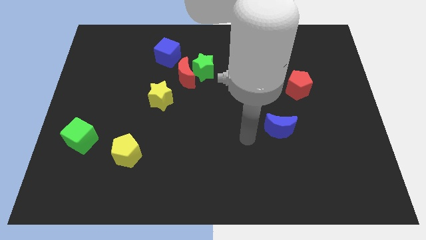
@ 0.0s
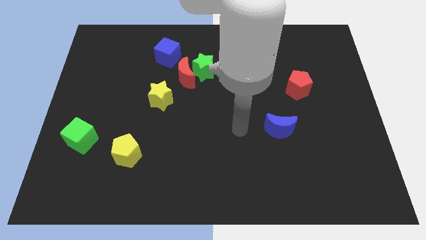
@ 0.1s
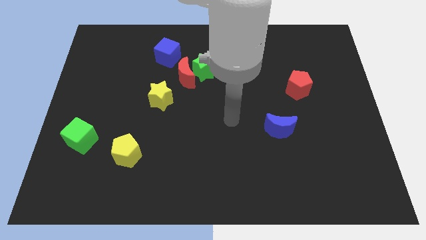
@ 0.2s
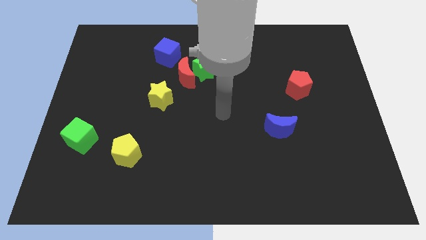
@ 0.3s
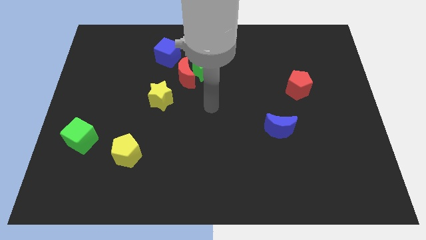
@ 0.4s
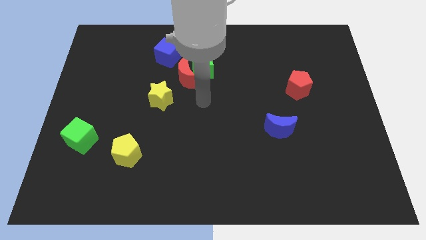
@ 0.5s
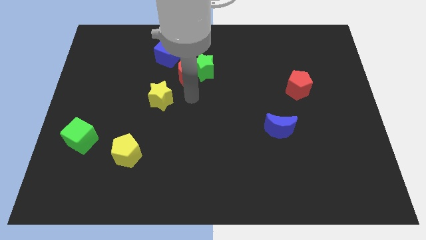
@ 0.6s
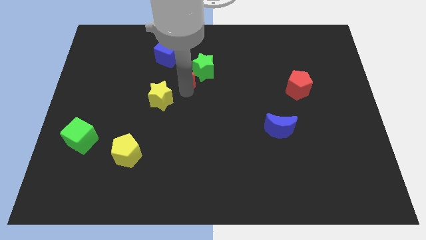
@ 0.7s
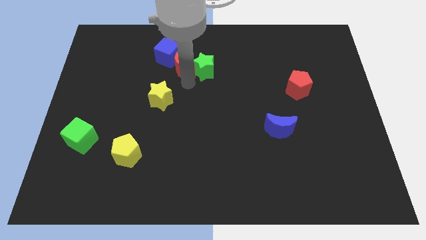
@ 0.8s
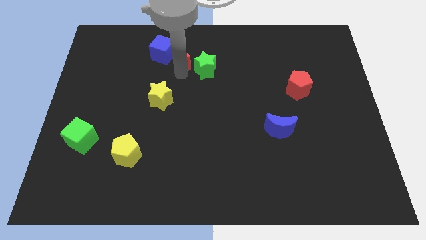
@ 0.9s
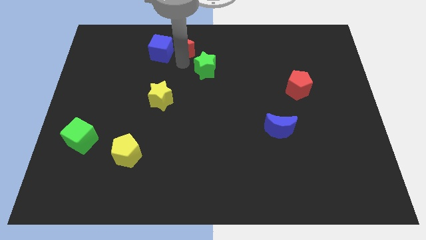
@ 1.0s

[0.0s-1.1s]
pull the green star apart from the red moon

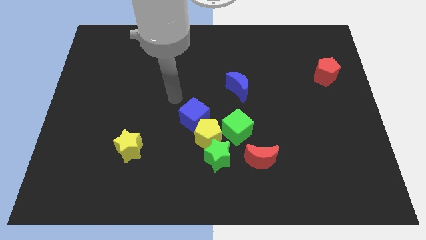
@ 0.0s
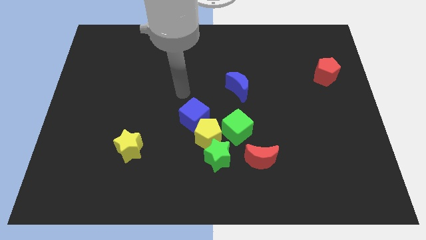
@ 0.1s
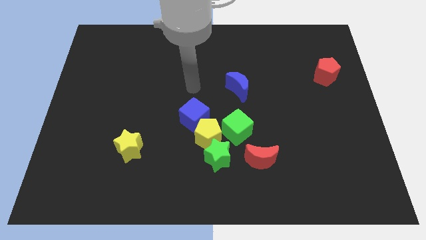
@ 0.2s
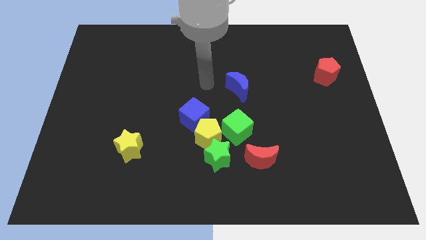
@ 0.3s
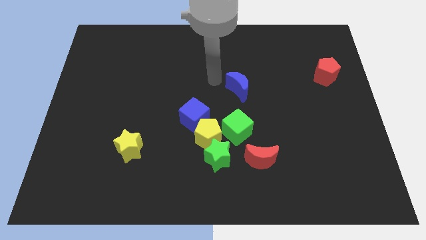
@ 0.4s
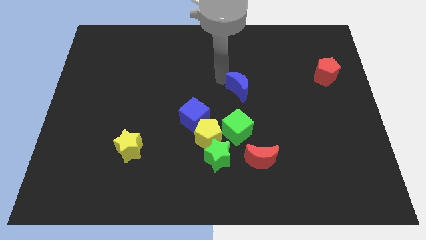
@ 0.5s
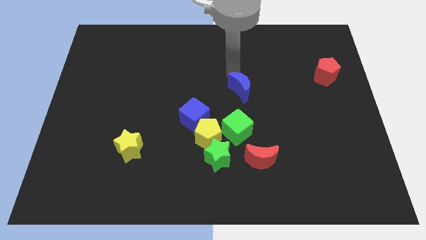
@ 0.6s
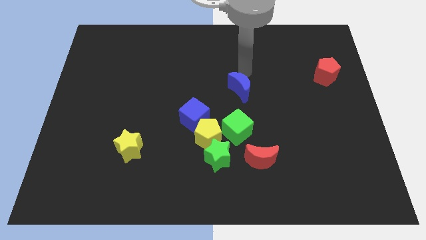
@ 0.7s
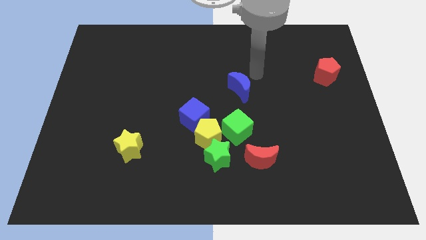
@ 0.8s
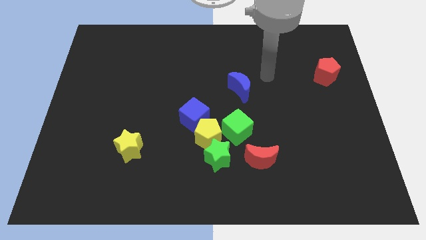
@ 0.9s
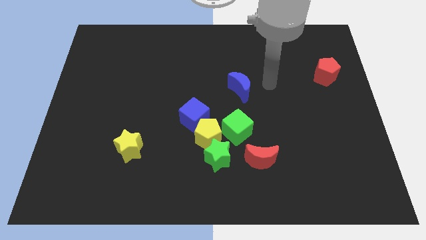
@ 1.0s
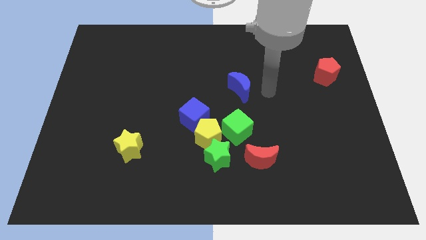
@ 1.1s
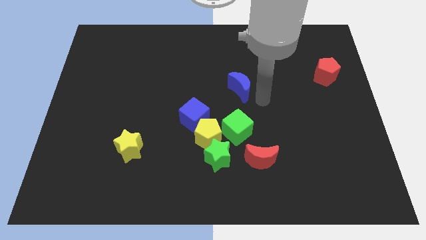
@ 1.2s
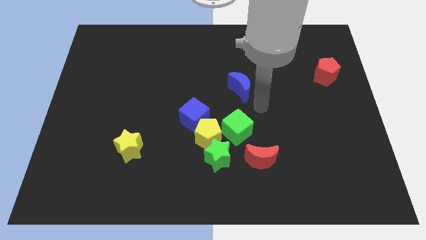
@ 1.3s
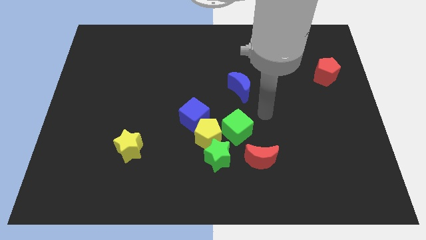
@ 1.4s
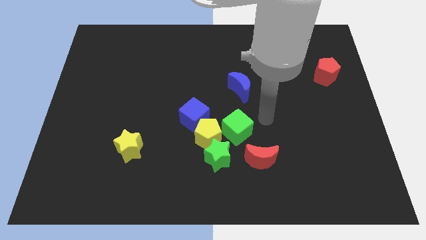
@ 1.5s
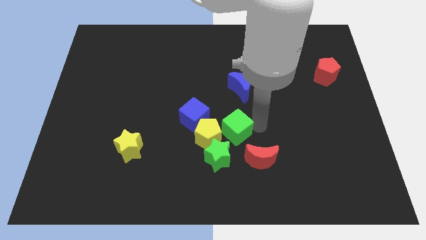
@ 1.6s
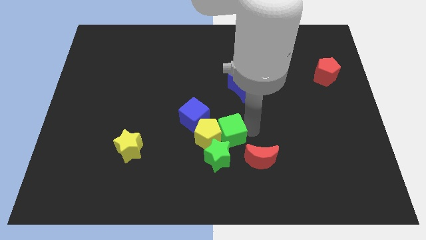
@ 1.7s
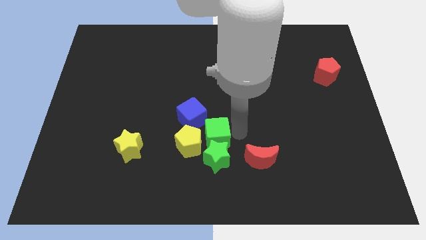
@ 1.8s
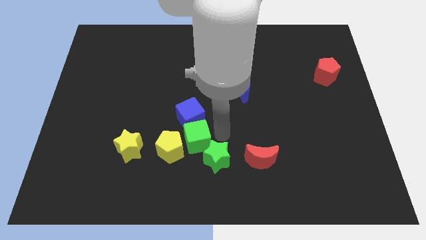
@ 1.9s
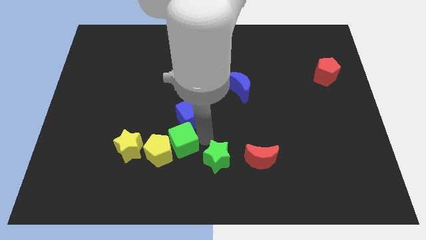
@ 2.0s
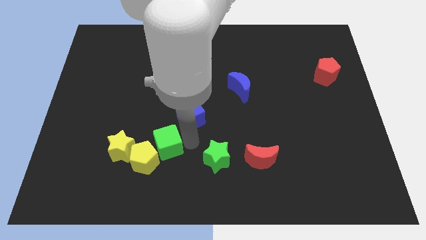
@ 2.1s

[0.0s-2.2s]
separate the yellow pentagon from the clump

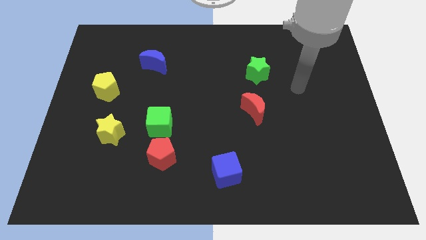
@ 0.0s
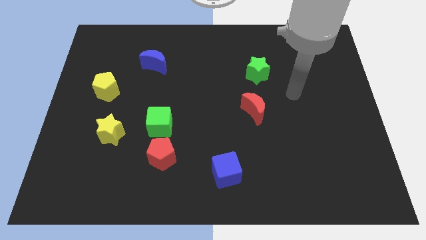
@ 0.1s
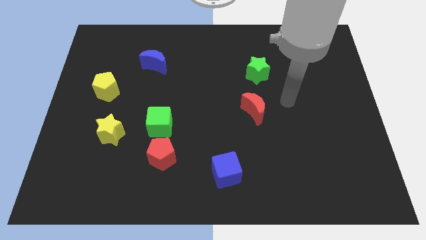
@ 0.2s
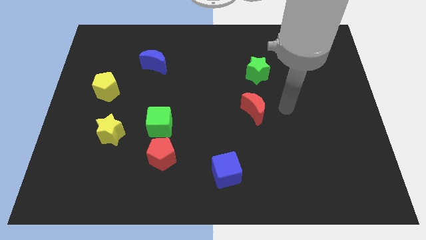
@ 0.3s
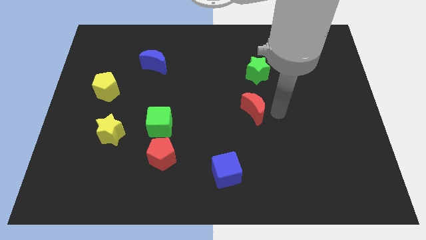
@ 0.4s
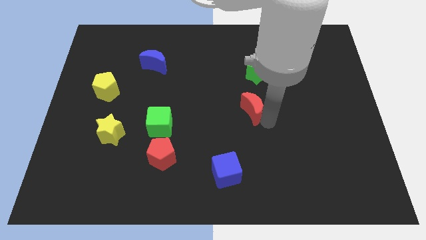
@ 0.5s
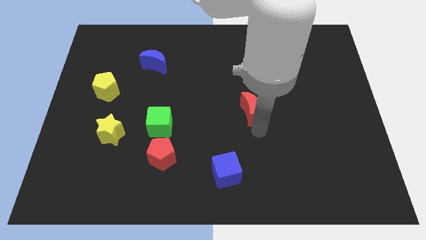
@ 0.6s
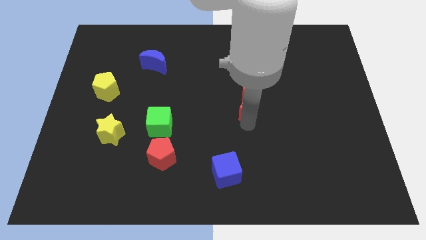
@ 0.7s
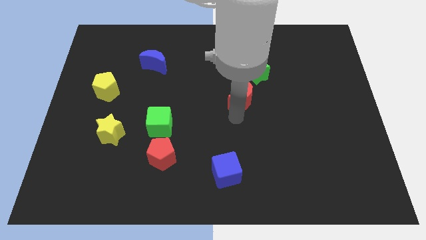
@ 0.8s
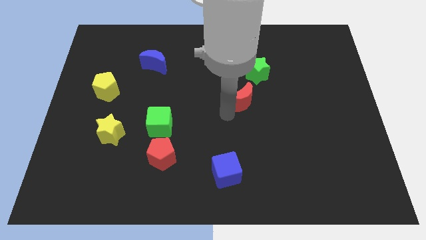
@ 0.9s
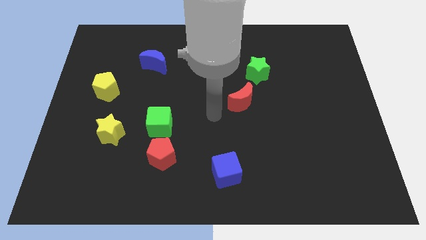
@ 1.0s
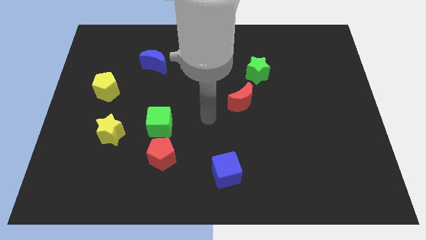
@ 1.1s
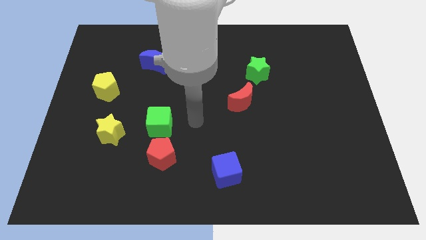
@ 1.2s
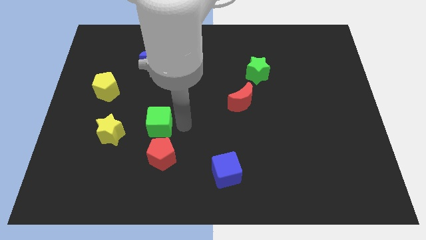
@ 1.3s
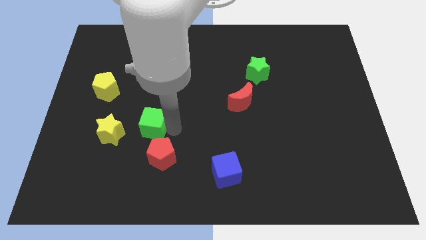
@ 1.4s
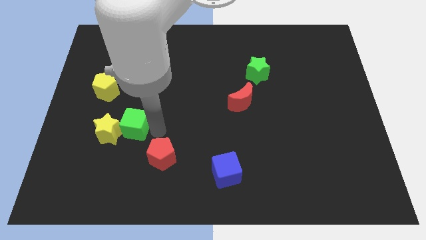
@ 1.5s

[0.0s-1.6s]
separate the red pentagon from the green cube

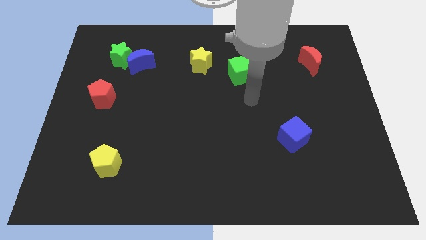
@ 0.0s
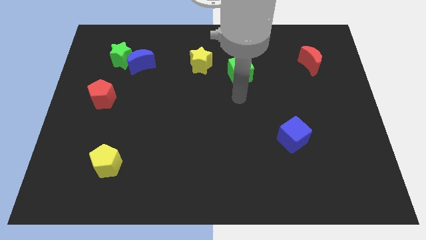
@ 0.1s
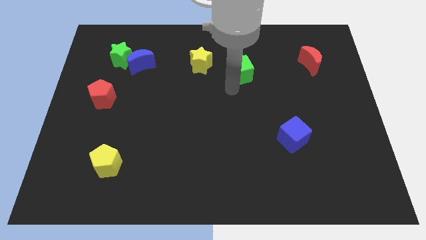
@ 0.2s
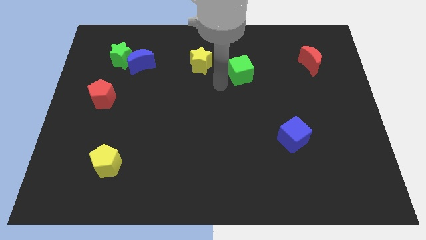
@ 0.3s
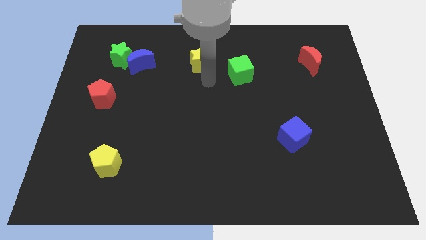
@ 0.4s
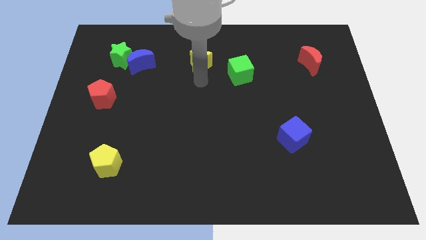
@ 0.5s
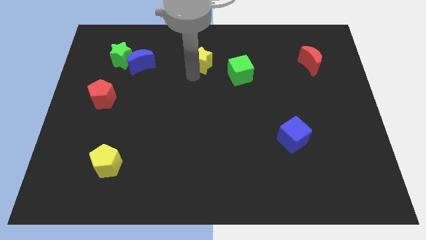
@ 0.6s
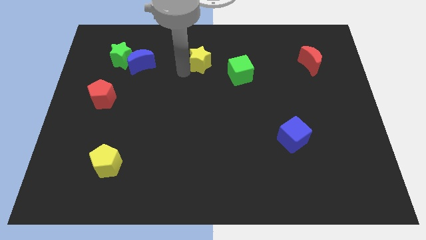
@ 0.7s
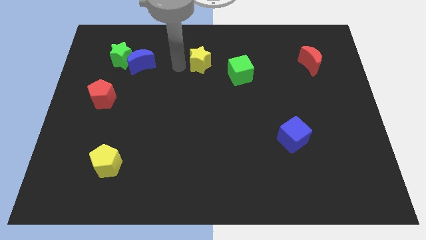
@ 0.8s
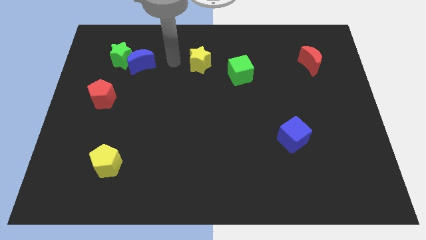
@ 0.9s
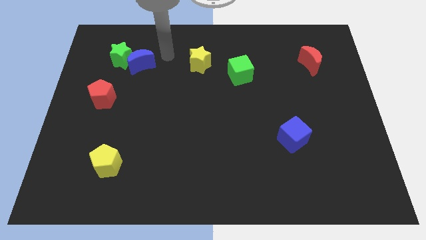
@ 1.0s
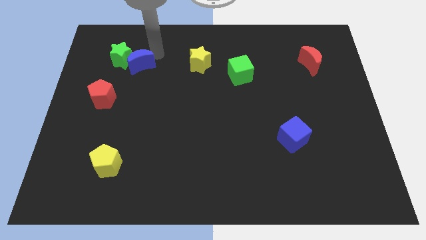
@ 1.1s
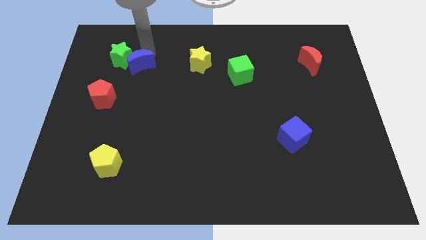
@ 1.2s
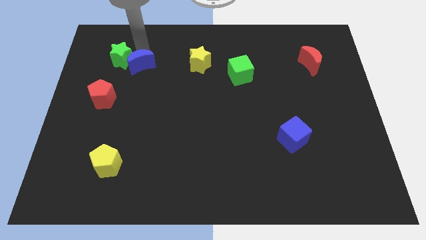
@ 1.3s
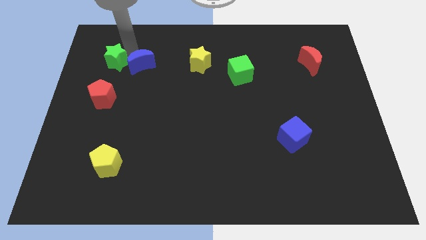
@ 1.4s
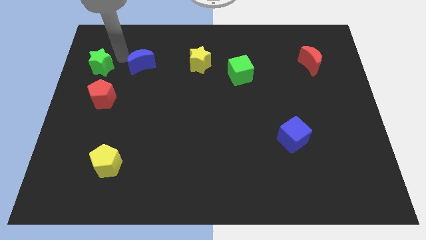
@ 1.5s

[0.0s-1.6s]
move the blue moon away from the green star

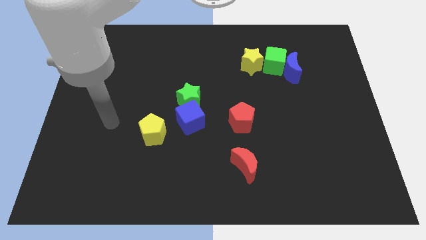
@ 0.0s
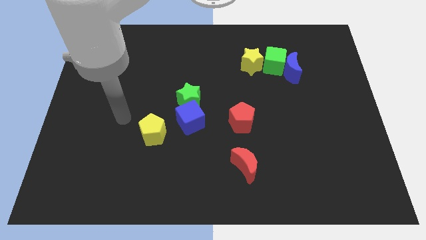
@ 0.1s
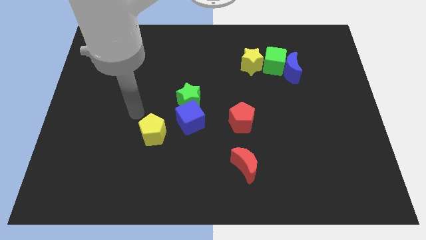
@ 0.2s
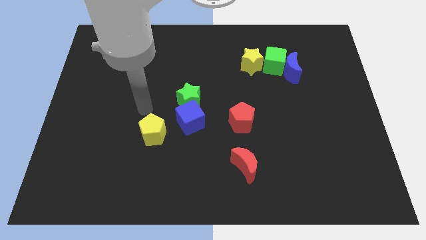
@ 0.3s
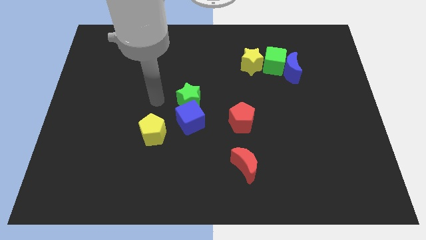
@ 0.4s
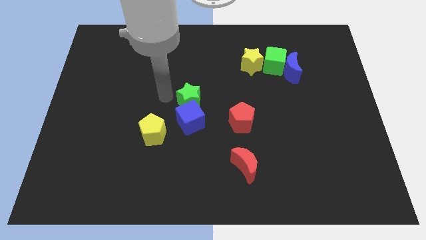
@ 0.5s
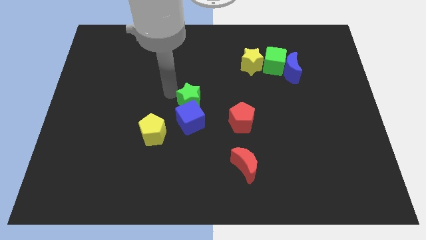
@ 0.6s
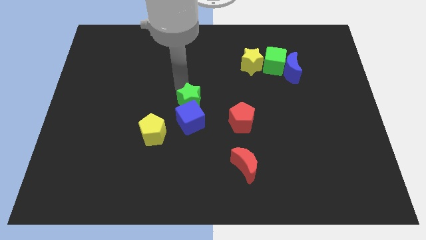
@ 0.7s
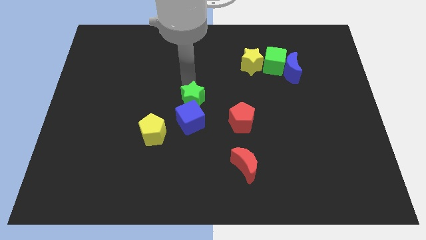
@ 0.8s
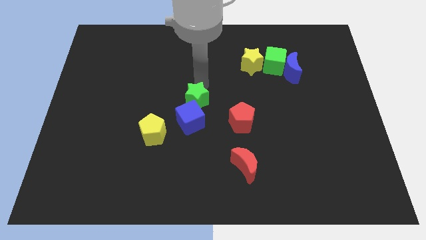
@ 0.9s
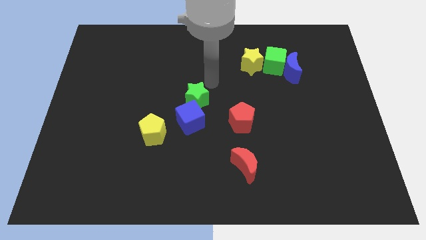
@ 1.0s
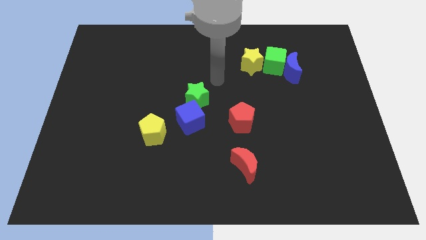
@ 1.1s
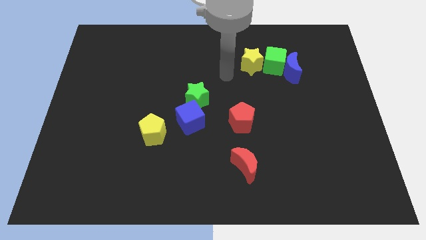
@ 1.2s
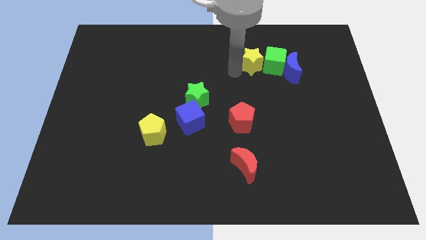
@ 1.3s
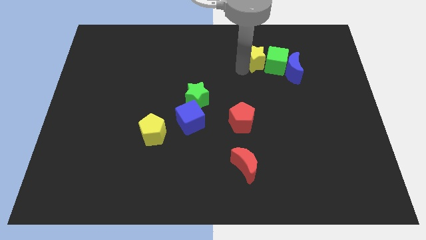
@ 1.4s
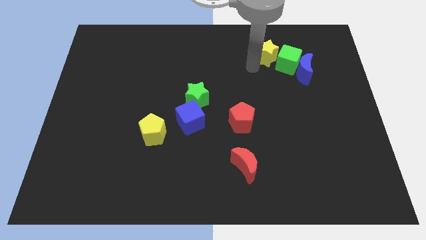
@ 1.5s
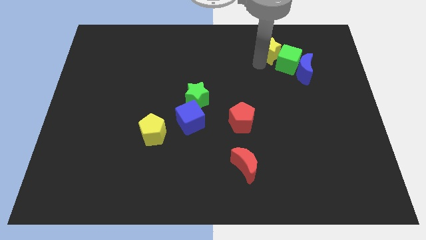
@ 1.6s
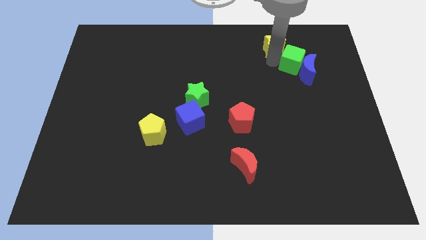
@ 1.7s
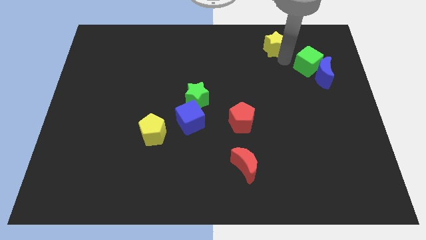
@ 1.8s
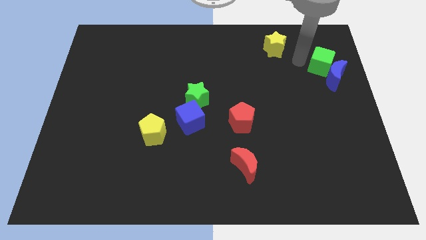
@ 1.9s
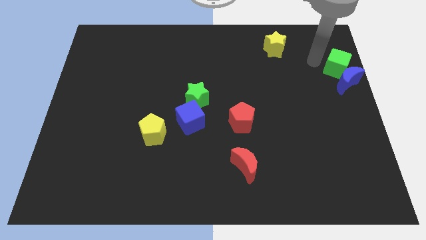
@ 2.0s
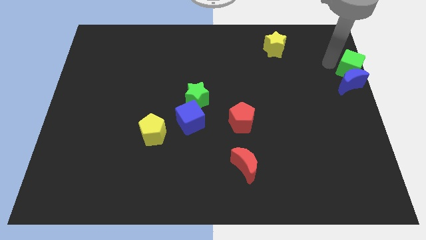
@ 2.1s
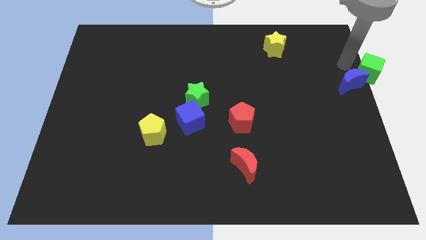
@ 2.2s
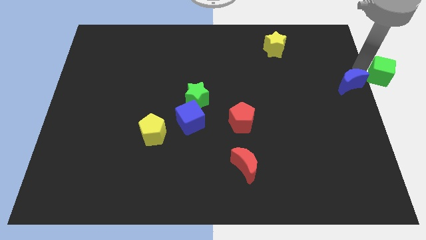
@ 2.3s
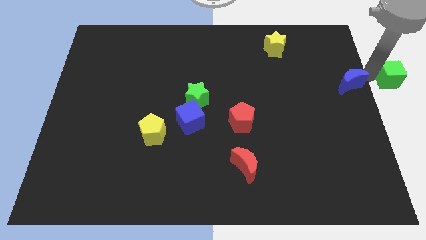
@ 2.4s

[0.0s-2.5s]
pull the blue moon apart from the green cube

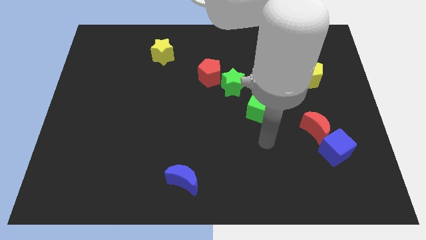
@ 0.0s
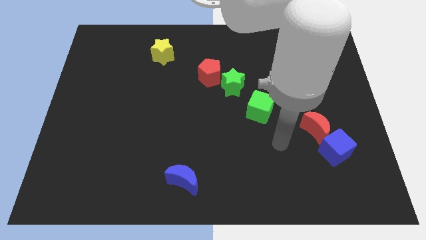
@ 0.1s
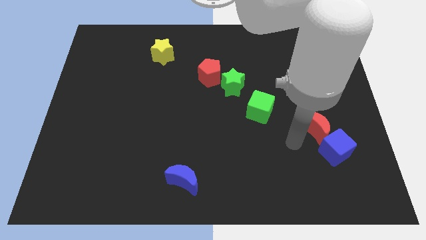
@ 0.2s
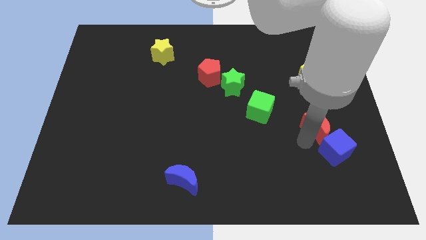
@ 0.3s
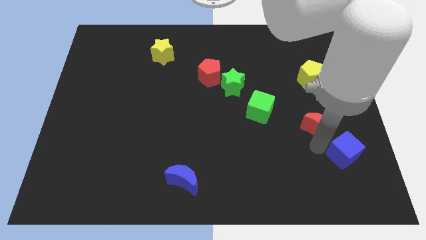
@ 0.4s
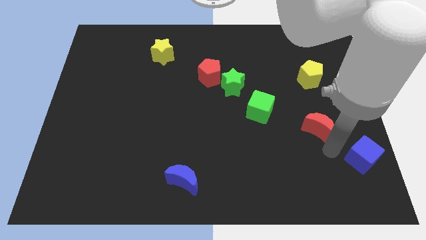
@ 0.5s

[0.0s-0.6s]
pull the red moon apart from the blue cube
